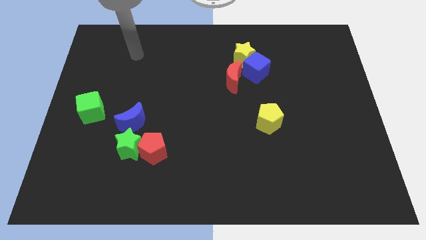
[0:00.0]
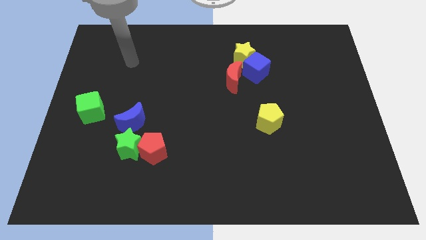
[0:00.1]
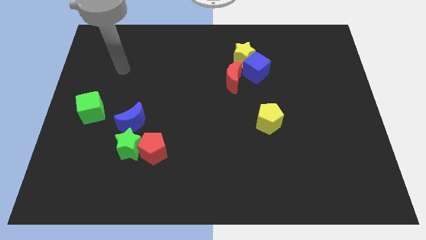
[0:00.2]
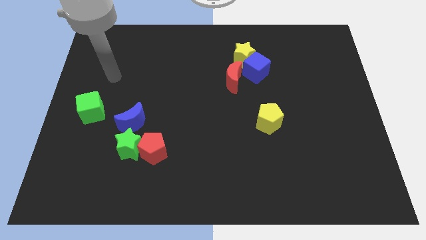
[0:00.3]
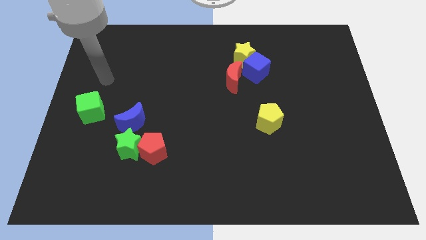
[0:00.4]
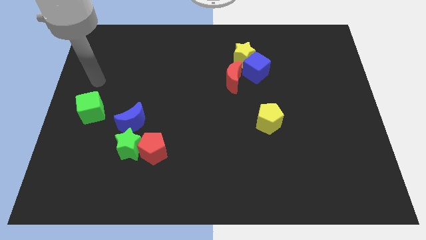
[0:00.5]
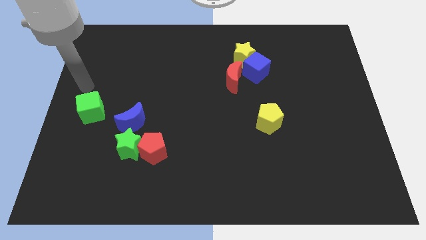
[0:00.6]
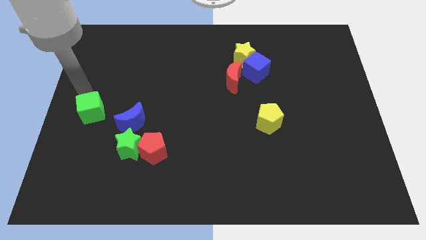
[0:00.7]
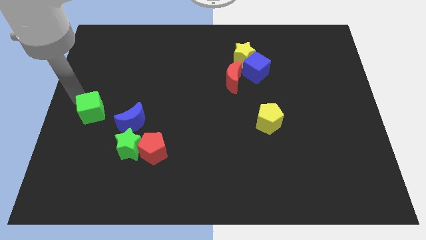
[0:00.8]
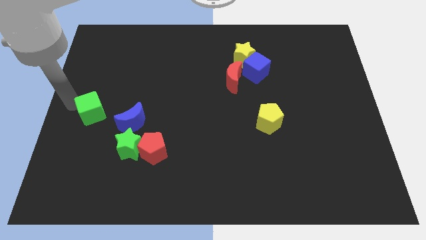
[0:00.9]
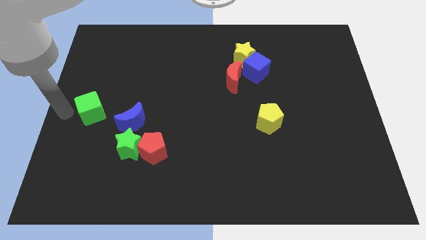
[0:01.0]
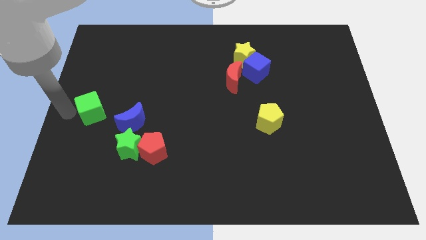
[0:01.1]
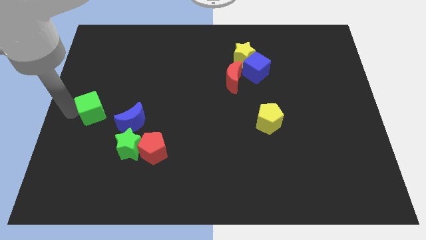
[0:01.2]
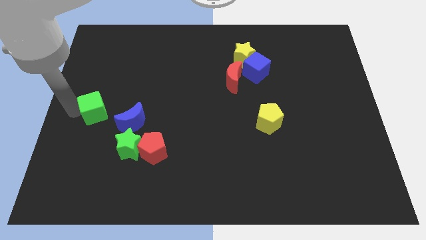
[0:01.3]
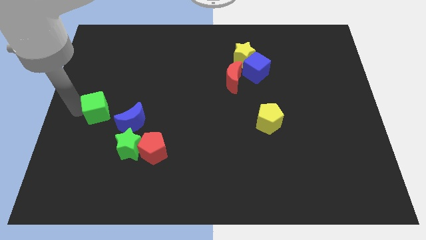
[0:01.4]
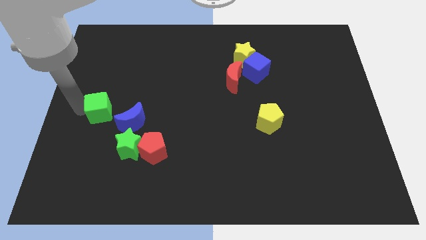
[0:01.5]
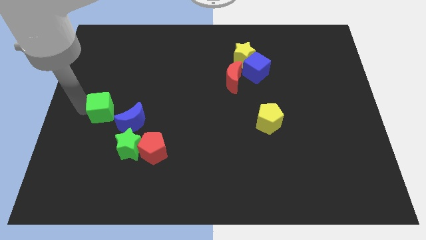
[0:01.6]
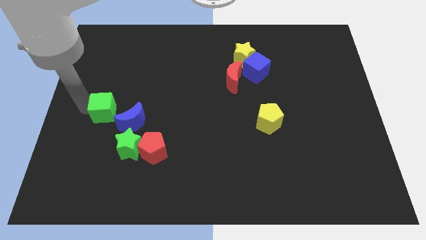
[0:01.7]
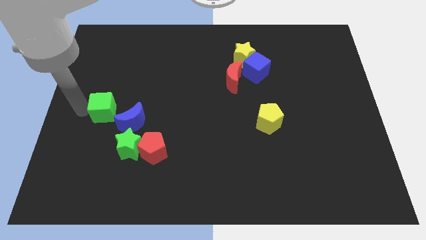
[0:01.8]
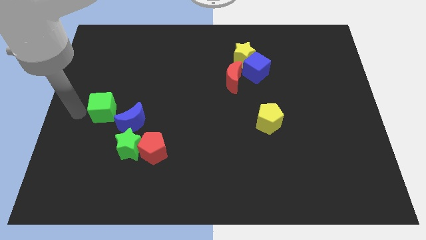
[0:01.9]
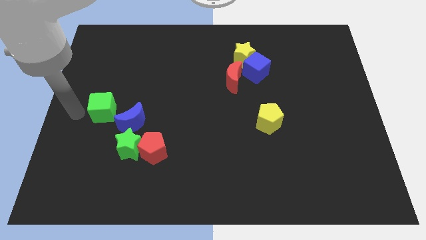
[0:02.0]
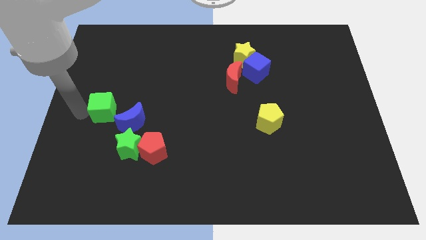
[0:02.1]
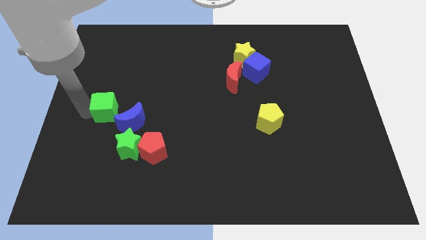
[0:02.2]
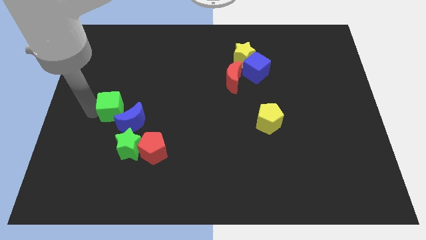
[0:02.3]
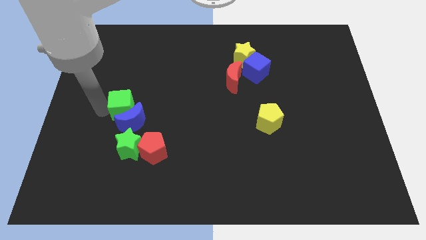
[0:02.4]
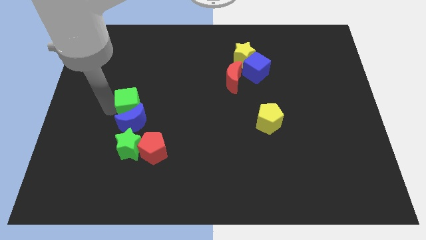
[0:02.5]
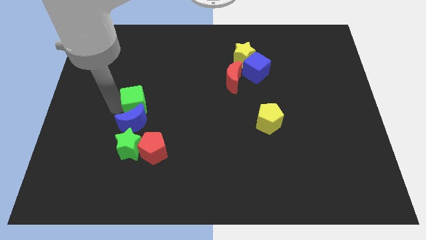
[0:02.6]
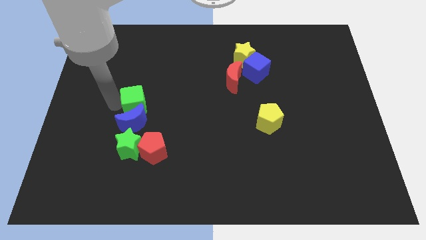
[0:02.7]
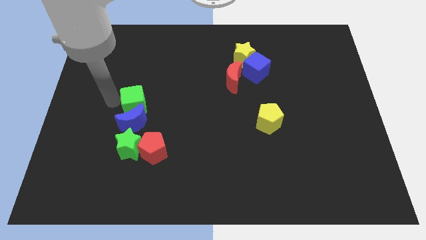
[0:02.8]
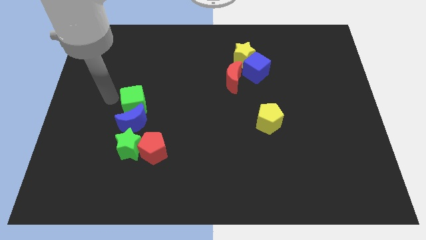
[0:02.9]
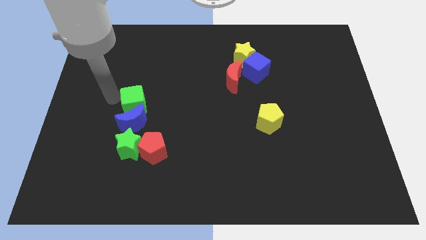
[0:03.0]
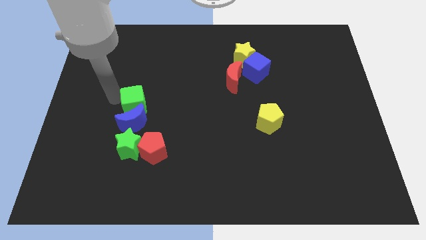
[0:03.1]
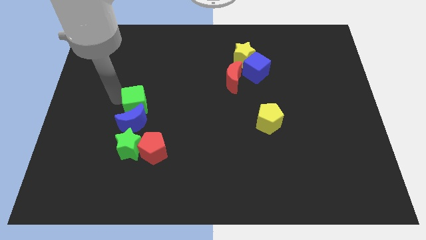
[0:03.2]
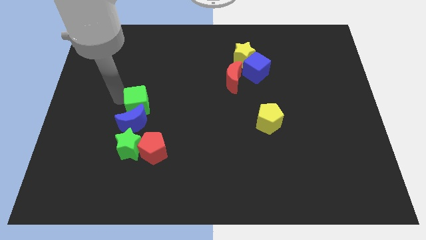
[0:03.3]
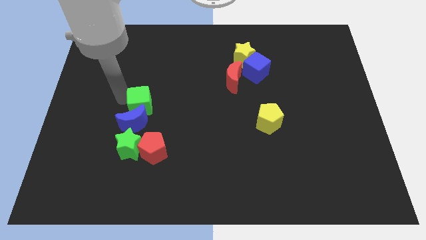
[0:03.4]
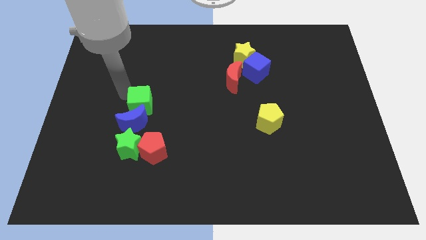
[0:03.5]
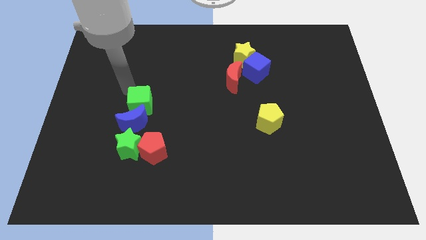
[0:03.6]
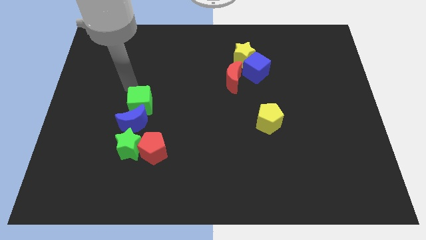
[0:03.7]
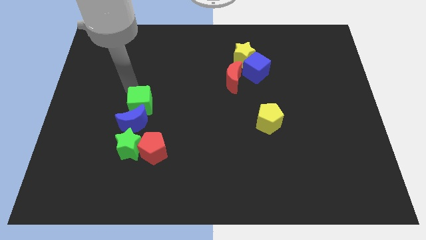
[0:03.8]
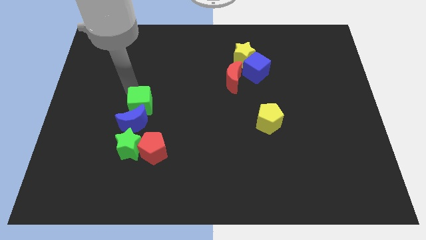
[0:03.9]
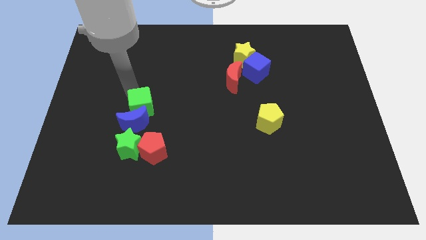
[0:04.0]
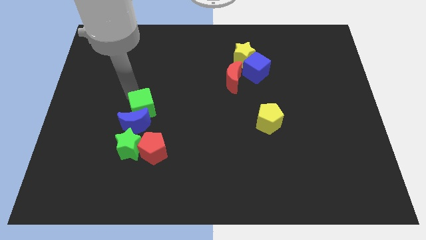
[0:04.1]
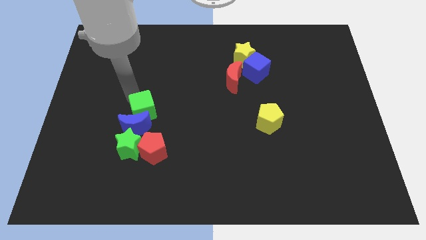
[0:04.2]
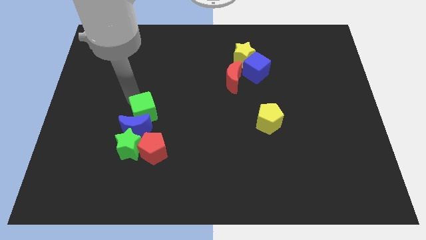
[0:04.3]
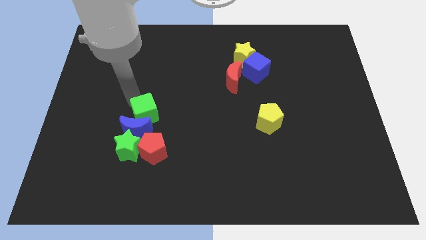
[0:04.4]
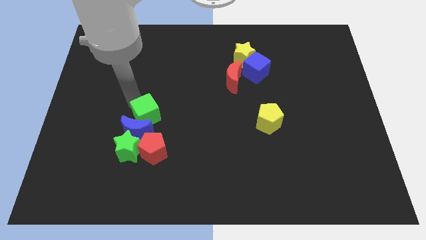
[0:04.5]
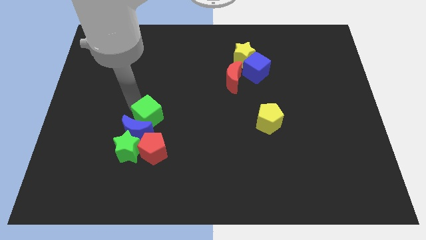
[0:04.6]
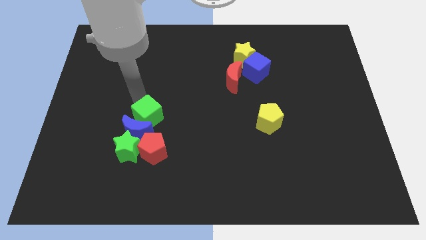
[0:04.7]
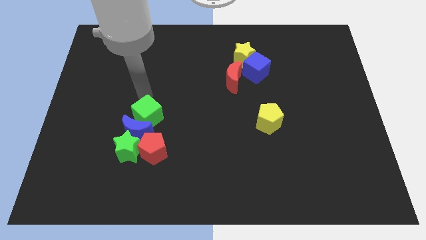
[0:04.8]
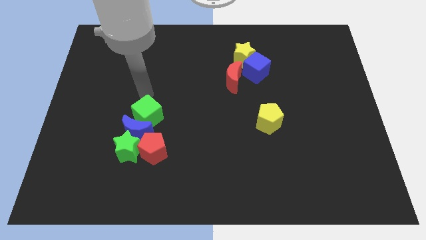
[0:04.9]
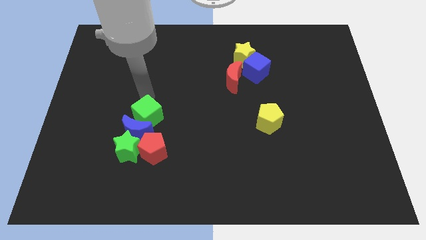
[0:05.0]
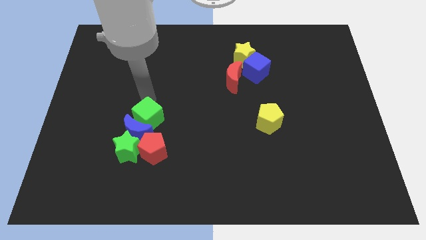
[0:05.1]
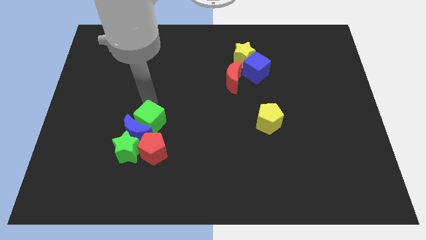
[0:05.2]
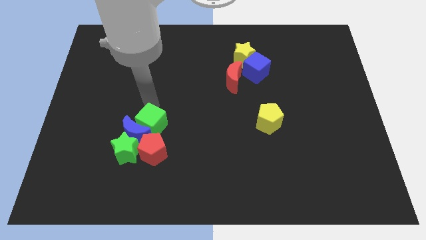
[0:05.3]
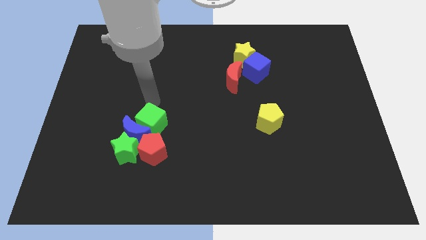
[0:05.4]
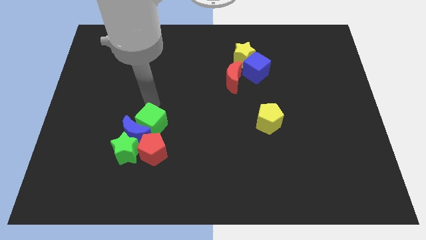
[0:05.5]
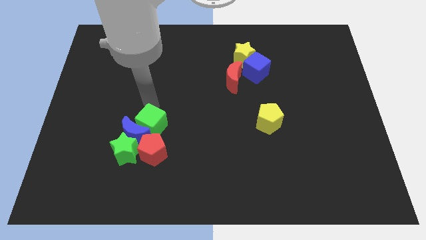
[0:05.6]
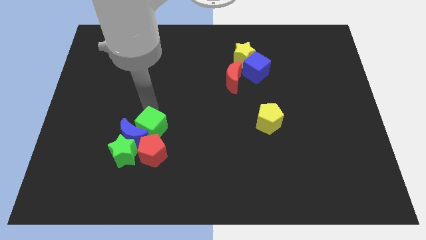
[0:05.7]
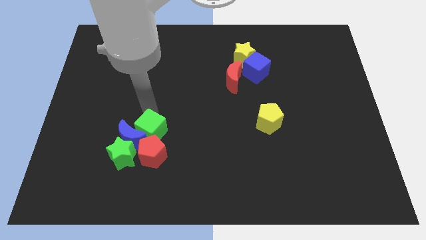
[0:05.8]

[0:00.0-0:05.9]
put the green cube towards the red pentagon
